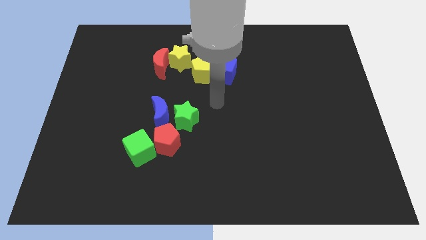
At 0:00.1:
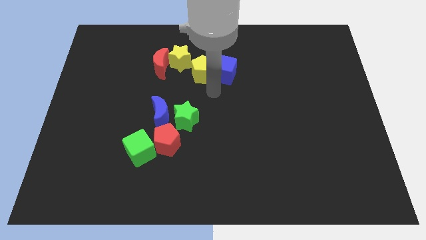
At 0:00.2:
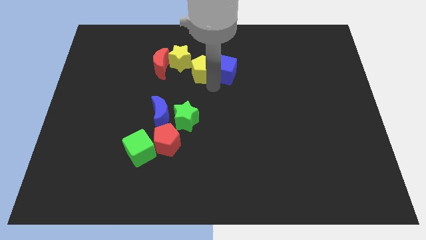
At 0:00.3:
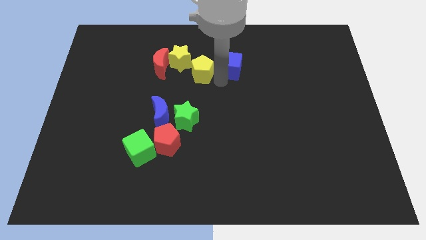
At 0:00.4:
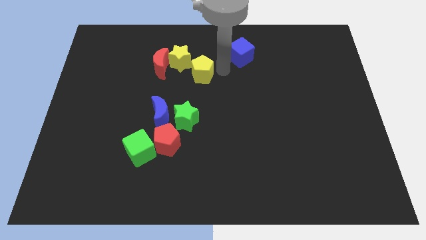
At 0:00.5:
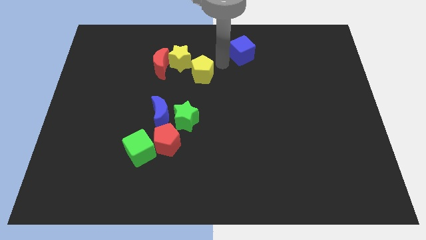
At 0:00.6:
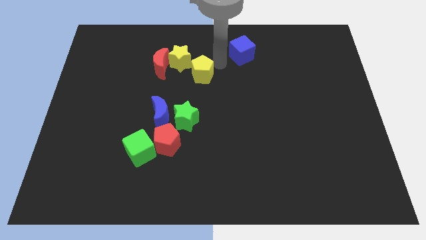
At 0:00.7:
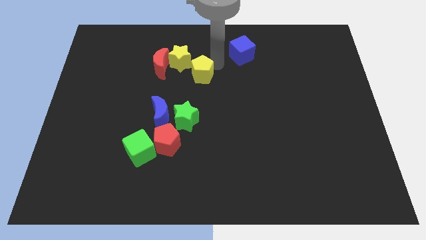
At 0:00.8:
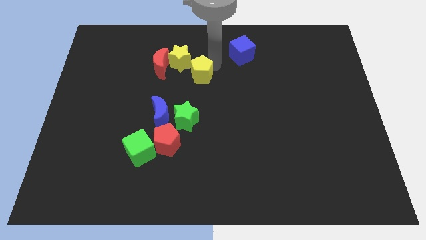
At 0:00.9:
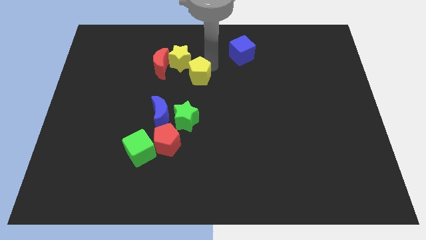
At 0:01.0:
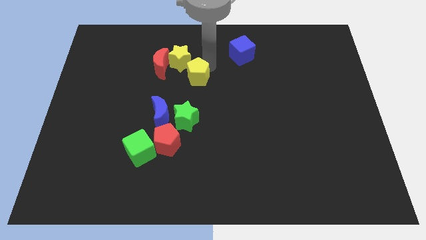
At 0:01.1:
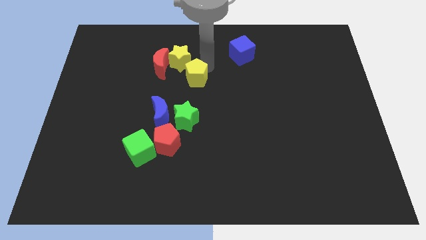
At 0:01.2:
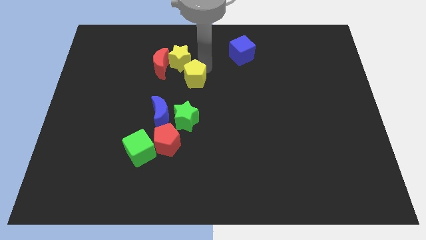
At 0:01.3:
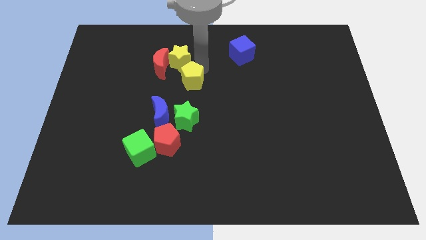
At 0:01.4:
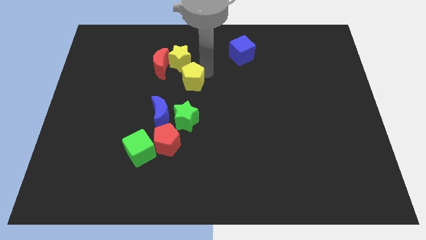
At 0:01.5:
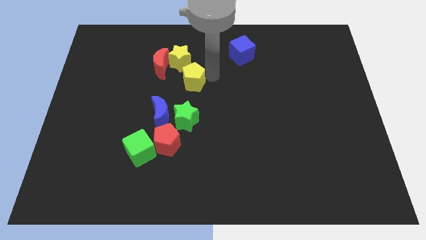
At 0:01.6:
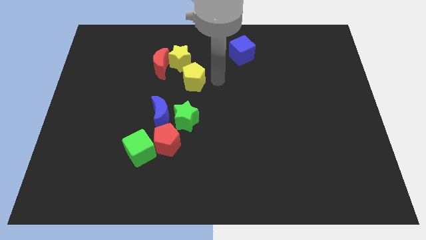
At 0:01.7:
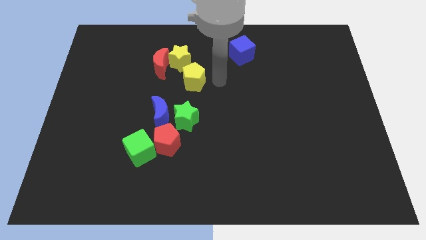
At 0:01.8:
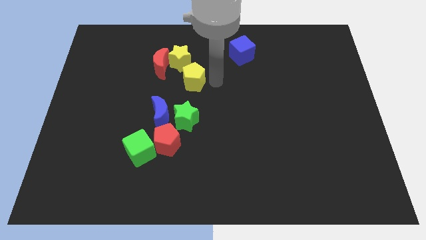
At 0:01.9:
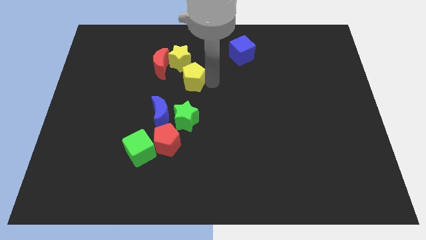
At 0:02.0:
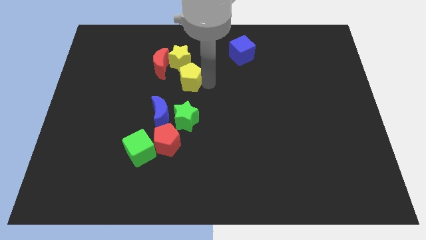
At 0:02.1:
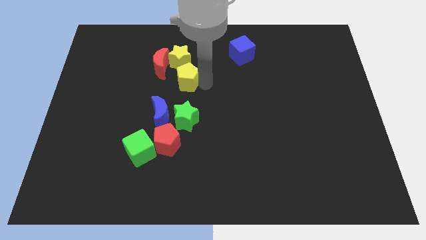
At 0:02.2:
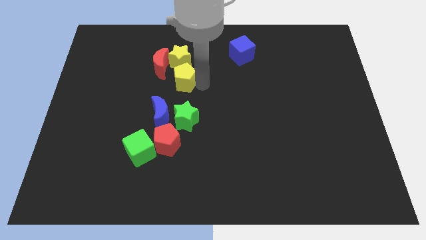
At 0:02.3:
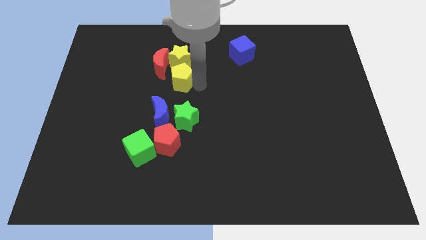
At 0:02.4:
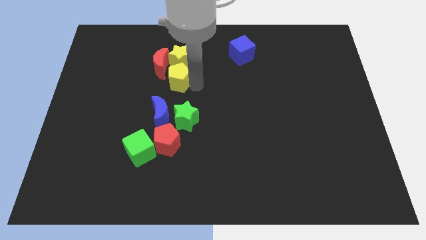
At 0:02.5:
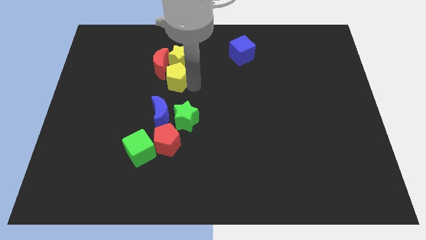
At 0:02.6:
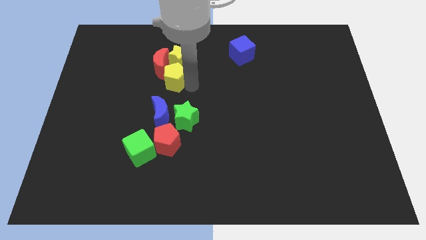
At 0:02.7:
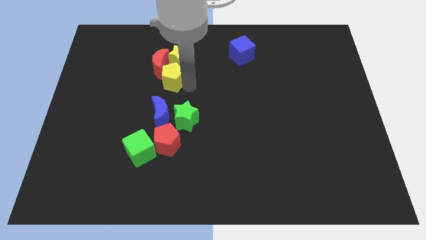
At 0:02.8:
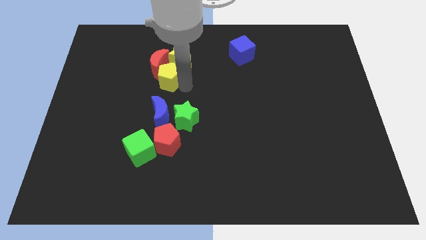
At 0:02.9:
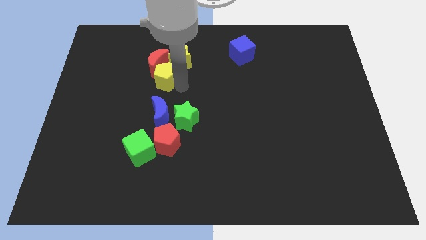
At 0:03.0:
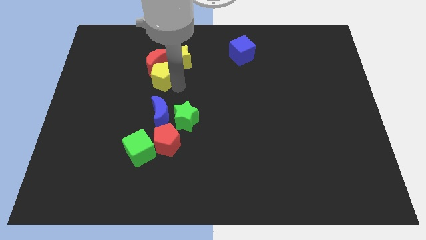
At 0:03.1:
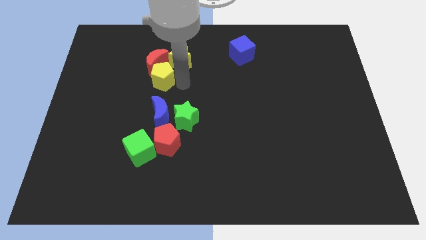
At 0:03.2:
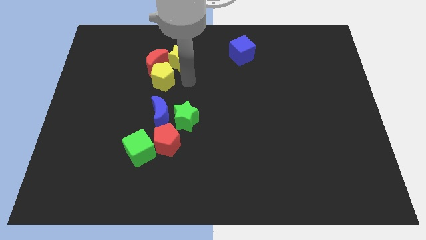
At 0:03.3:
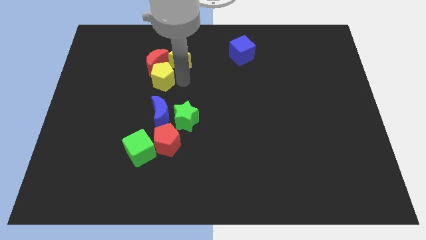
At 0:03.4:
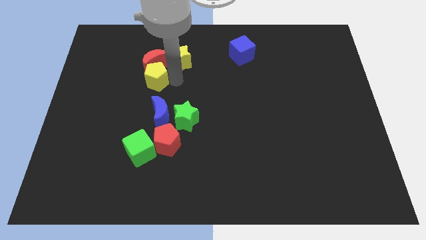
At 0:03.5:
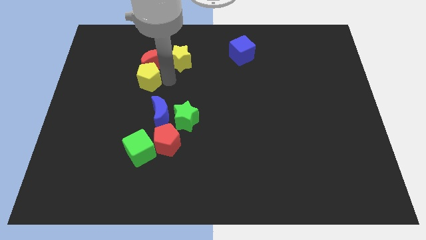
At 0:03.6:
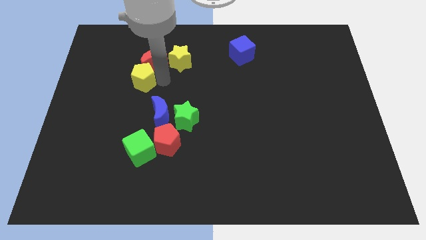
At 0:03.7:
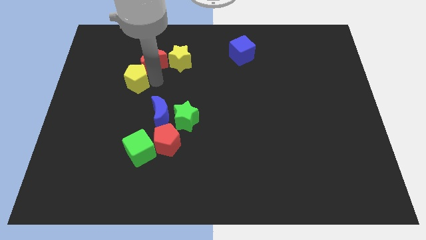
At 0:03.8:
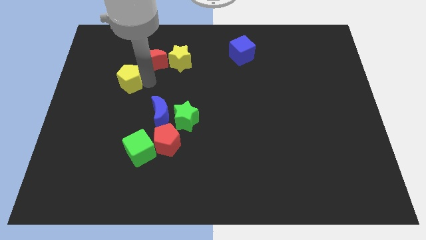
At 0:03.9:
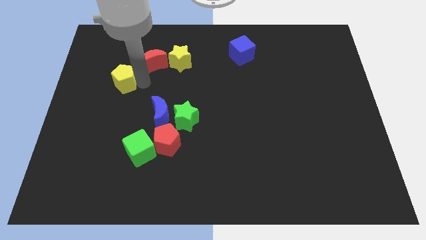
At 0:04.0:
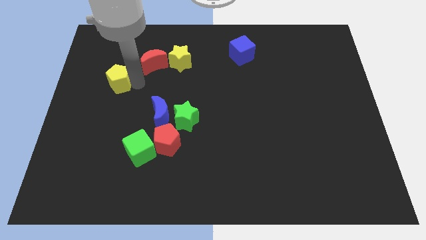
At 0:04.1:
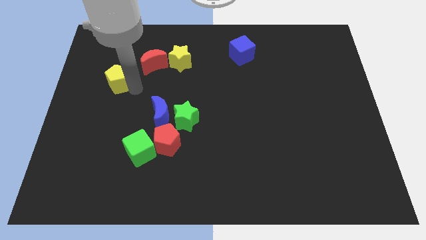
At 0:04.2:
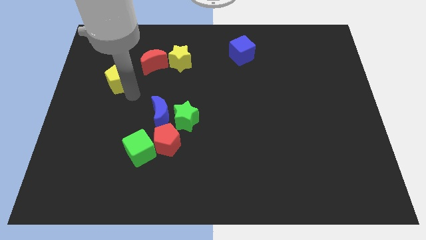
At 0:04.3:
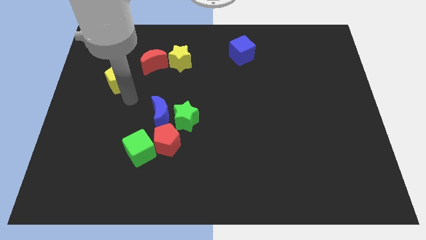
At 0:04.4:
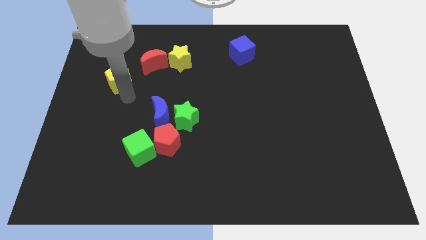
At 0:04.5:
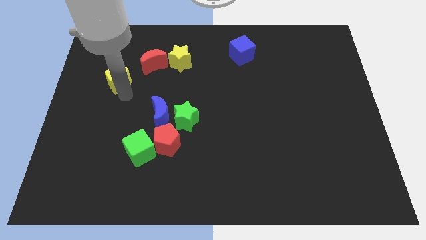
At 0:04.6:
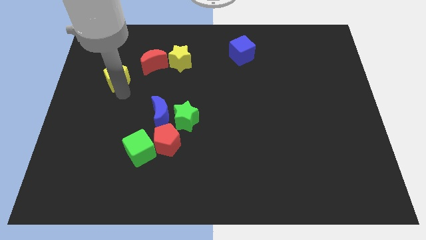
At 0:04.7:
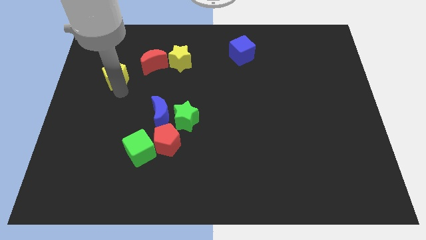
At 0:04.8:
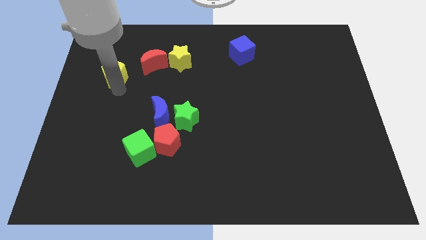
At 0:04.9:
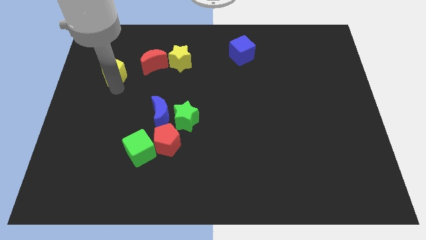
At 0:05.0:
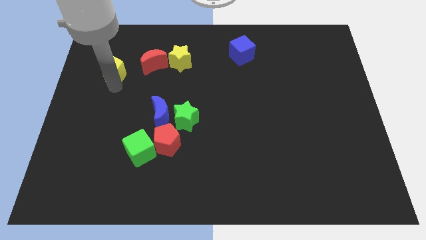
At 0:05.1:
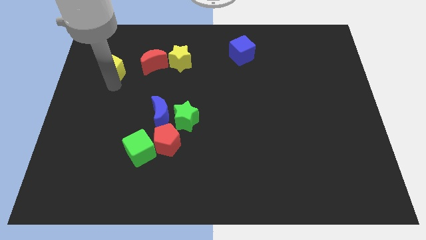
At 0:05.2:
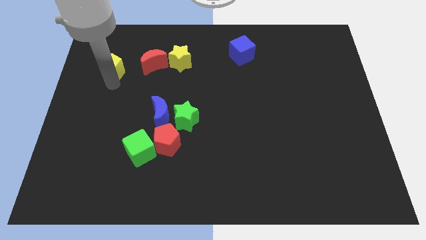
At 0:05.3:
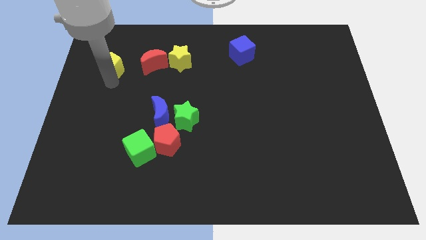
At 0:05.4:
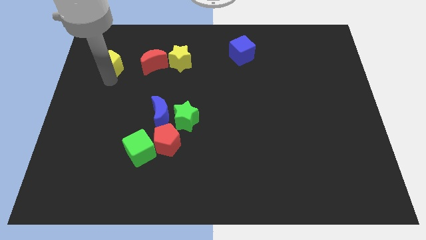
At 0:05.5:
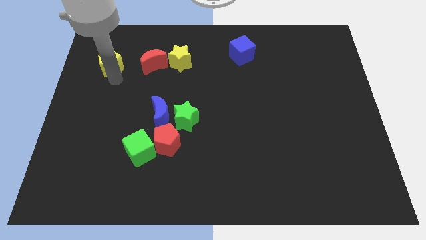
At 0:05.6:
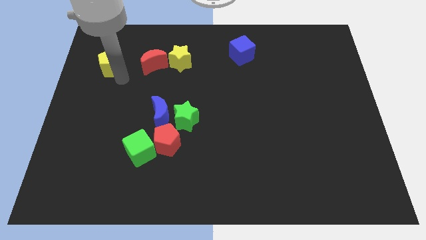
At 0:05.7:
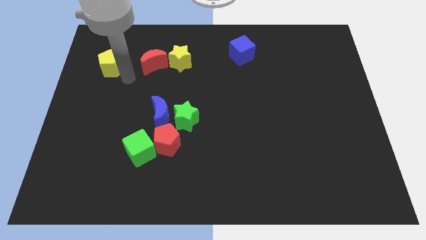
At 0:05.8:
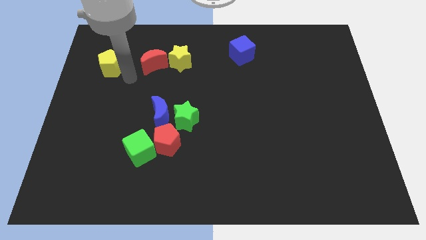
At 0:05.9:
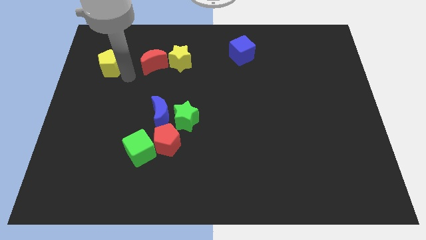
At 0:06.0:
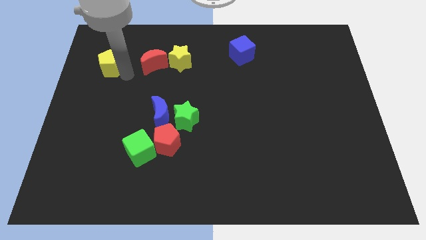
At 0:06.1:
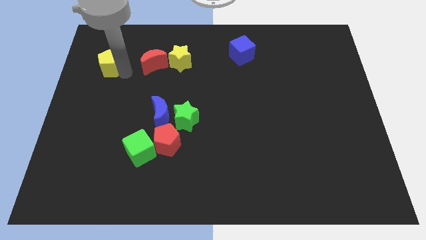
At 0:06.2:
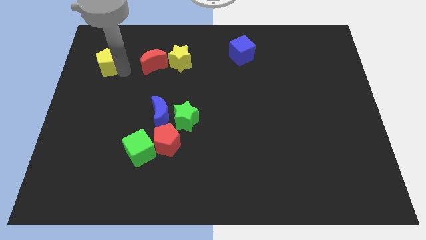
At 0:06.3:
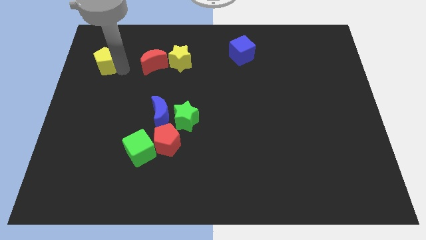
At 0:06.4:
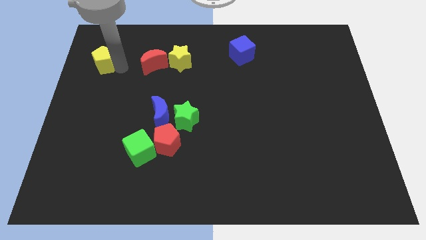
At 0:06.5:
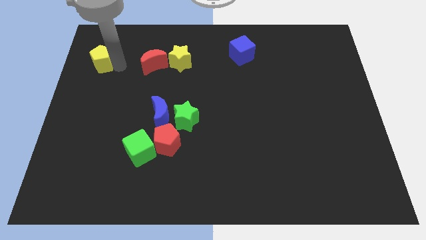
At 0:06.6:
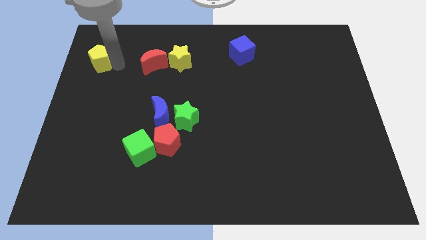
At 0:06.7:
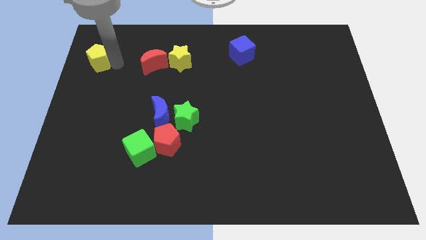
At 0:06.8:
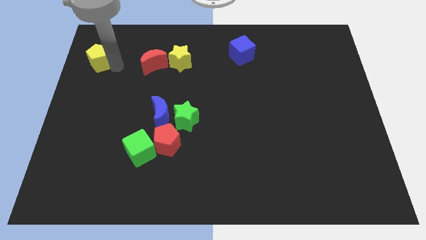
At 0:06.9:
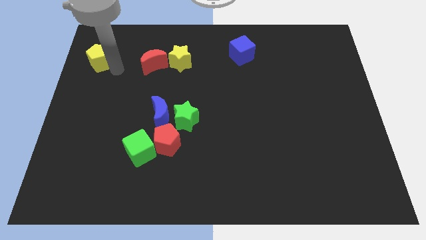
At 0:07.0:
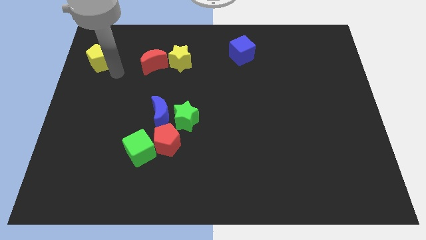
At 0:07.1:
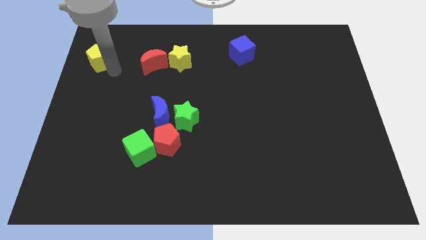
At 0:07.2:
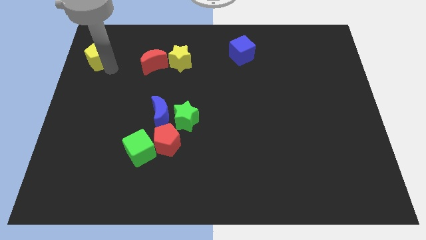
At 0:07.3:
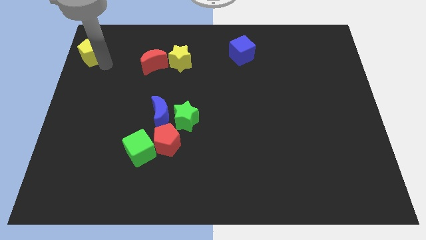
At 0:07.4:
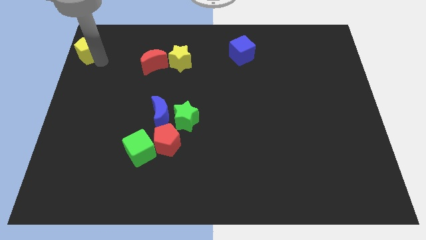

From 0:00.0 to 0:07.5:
move the yellow pentagon to the top left
